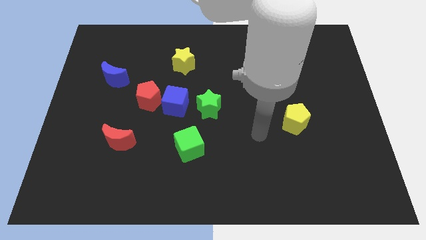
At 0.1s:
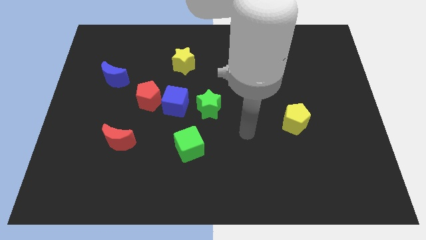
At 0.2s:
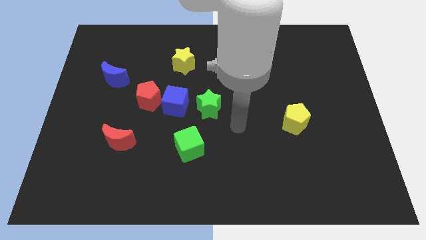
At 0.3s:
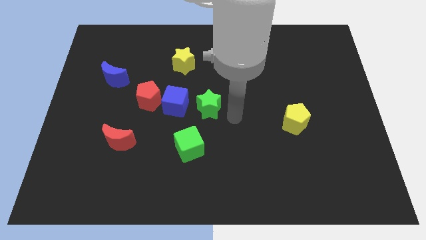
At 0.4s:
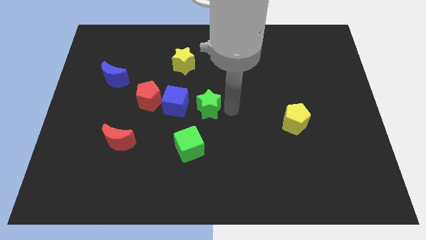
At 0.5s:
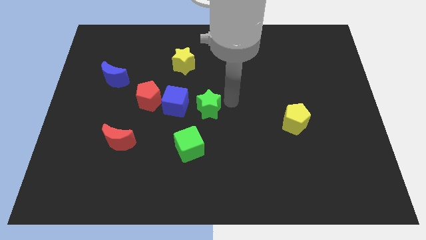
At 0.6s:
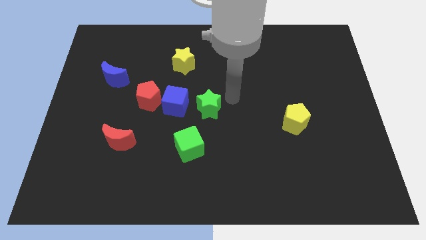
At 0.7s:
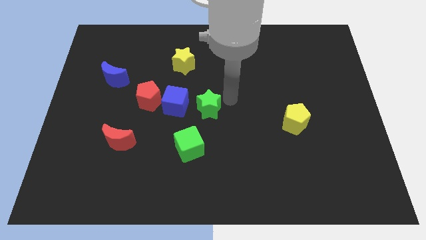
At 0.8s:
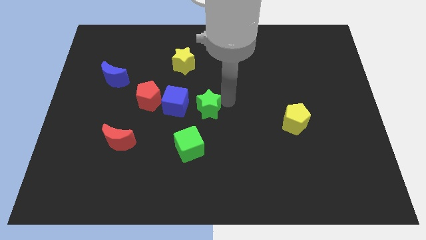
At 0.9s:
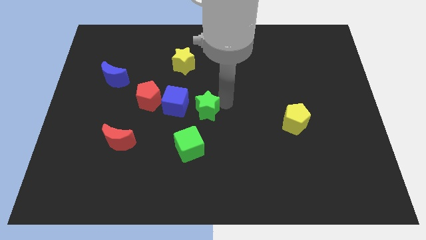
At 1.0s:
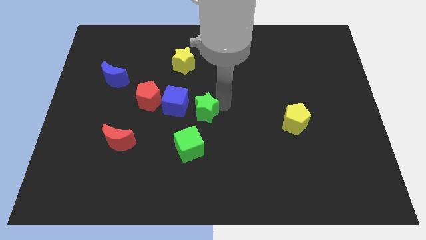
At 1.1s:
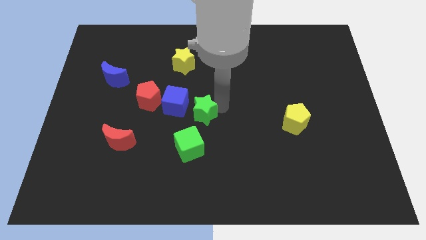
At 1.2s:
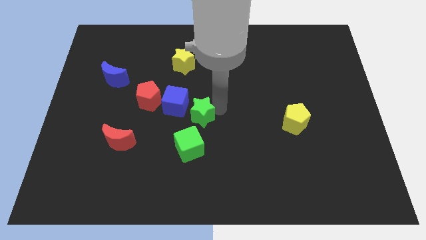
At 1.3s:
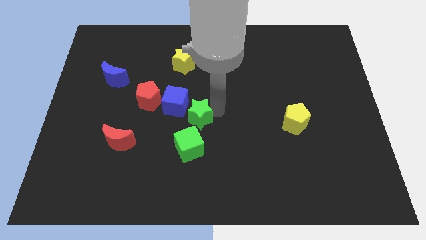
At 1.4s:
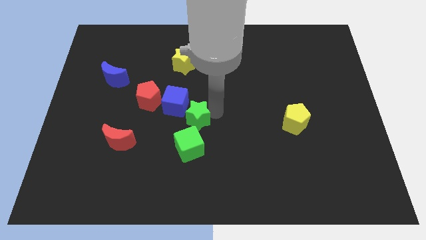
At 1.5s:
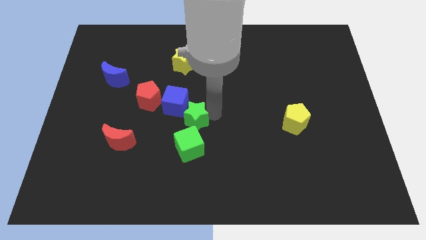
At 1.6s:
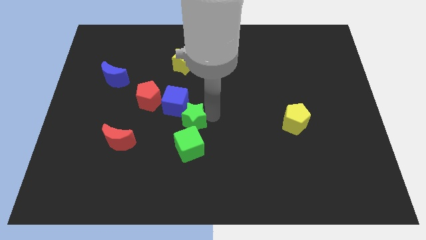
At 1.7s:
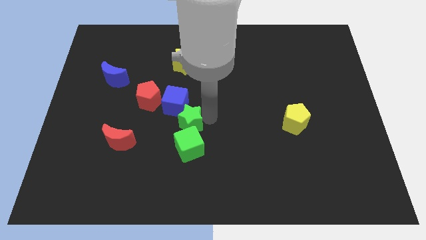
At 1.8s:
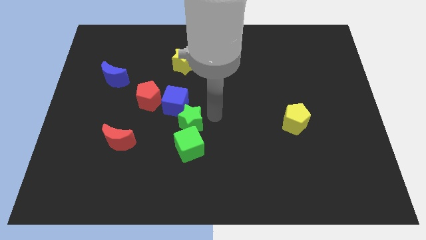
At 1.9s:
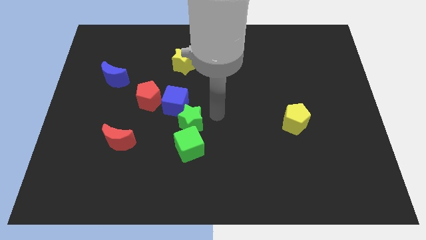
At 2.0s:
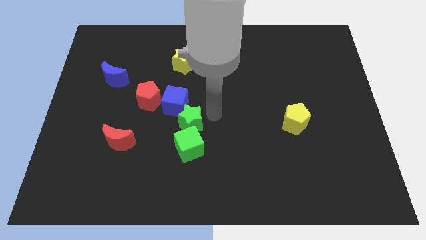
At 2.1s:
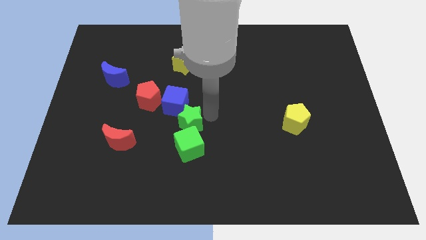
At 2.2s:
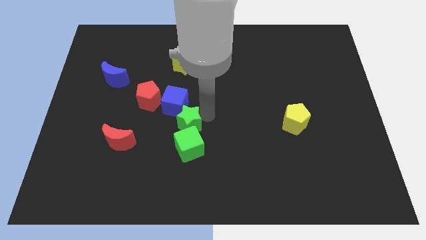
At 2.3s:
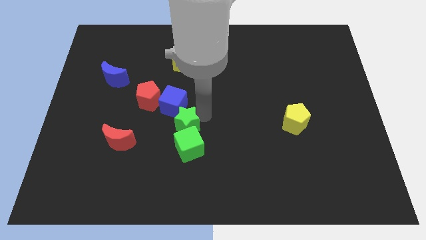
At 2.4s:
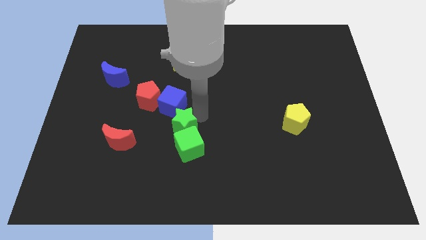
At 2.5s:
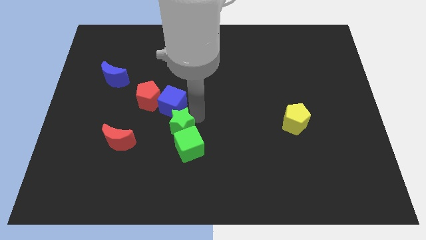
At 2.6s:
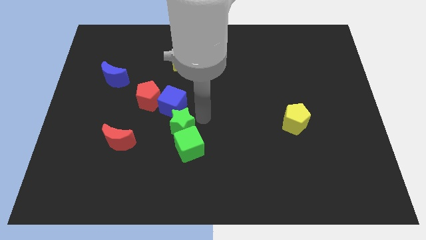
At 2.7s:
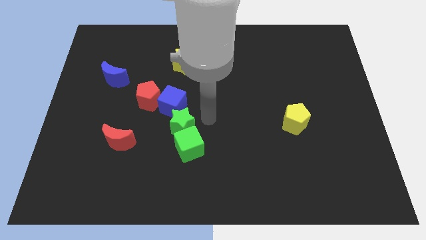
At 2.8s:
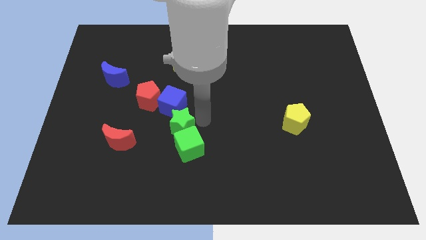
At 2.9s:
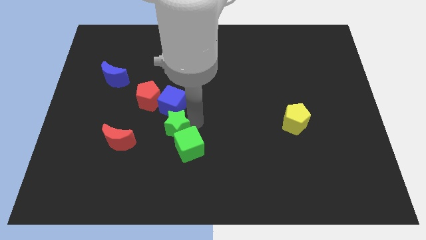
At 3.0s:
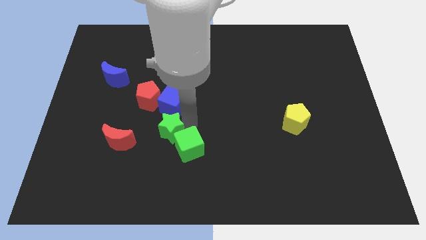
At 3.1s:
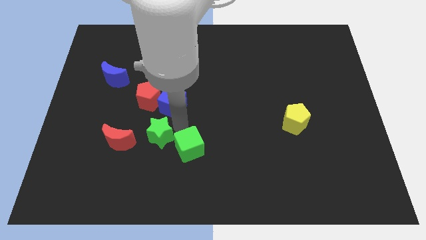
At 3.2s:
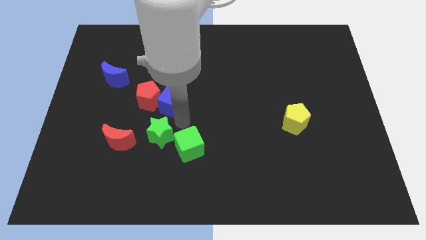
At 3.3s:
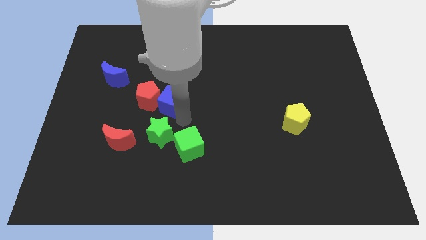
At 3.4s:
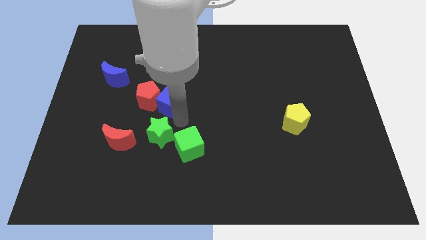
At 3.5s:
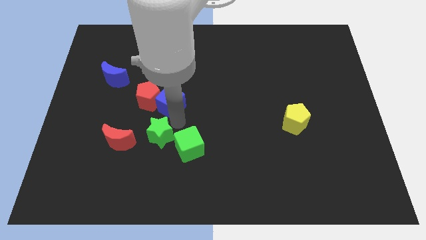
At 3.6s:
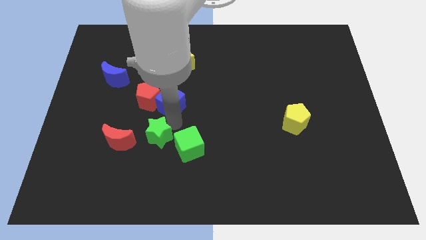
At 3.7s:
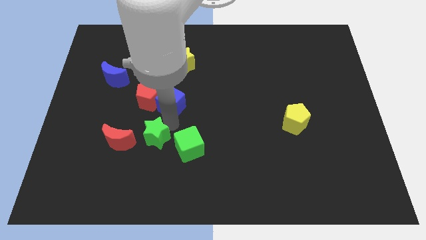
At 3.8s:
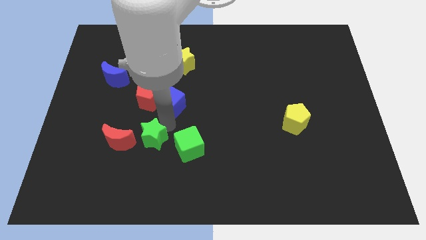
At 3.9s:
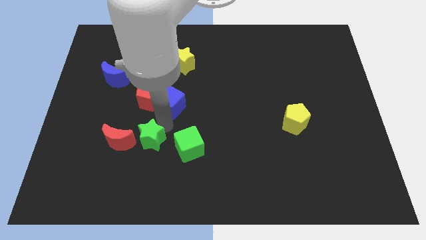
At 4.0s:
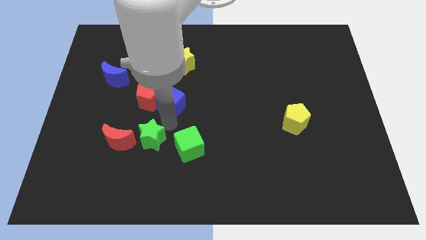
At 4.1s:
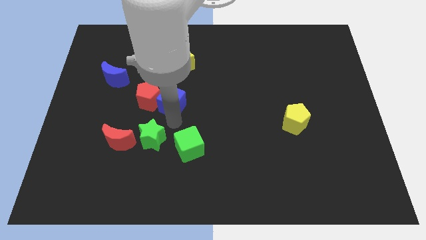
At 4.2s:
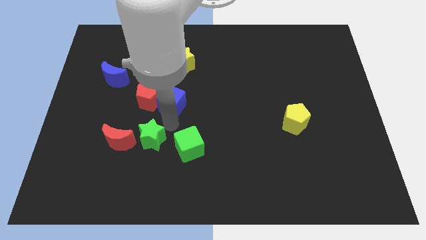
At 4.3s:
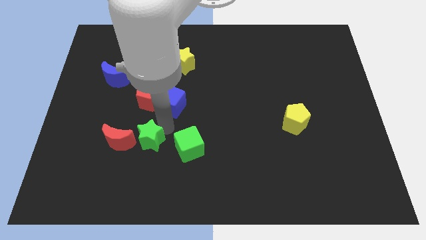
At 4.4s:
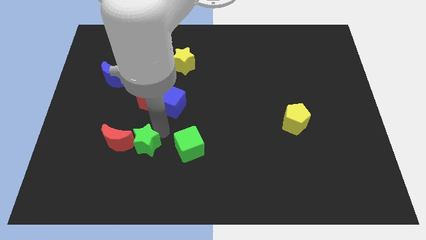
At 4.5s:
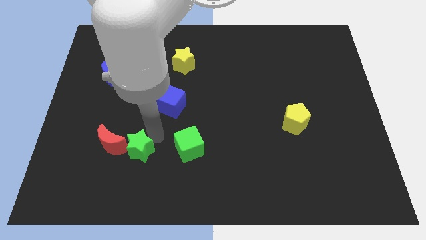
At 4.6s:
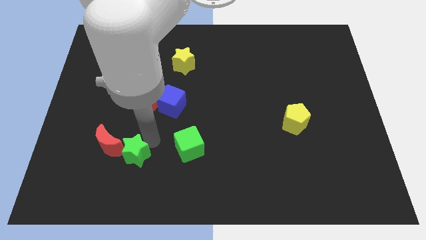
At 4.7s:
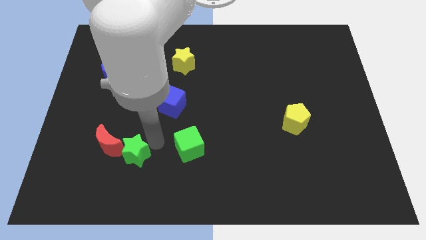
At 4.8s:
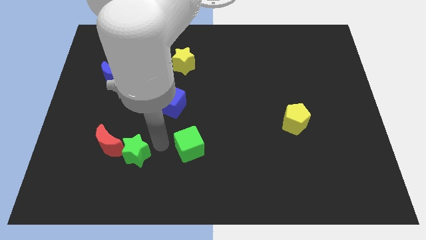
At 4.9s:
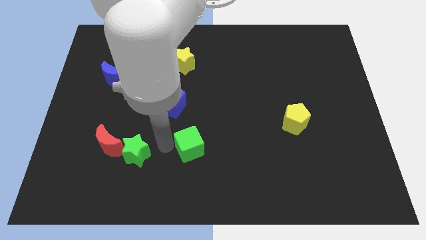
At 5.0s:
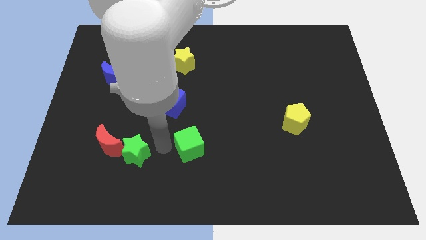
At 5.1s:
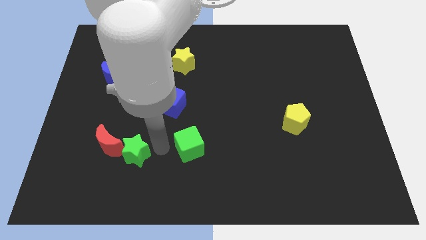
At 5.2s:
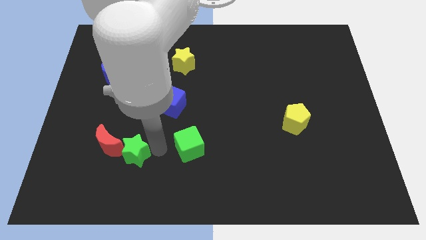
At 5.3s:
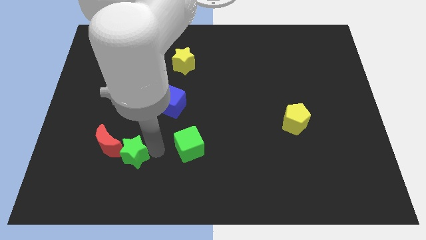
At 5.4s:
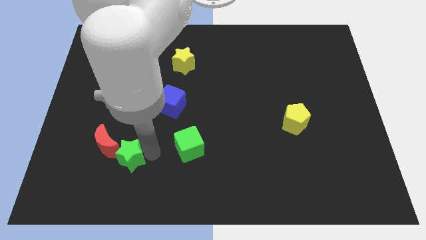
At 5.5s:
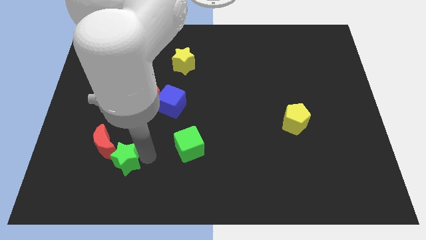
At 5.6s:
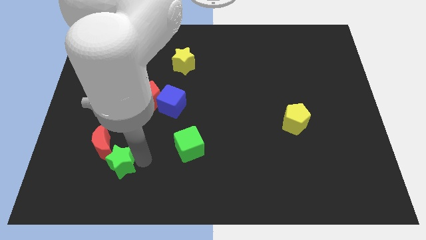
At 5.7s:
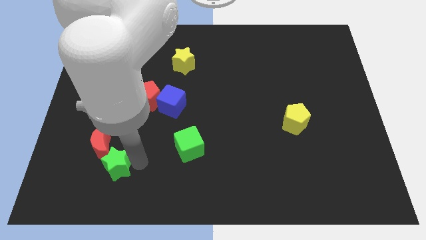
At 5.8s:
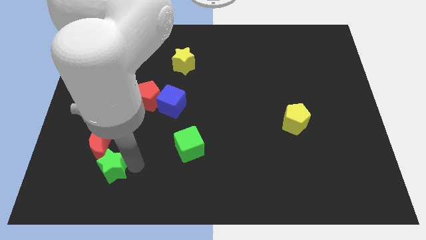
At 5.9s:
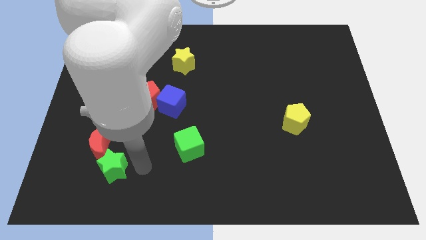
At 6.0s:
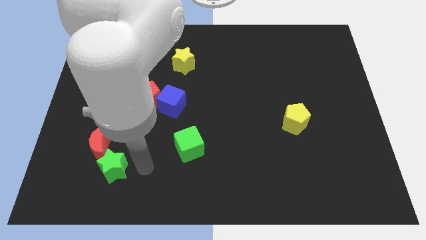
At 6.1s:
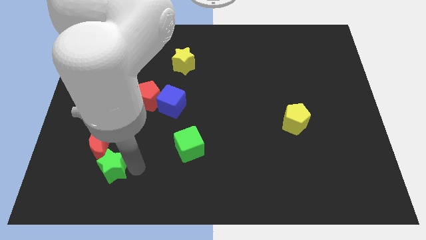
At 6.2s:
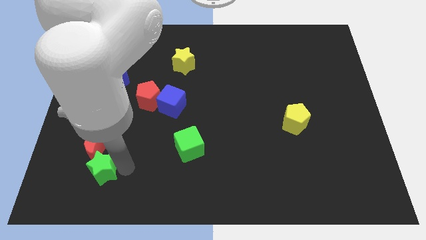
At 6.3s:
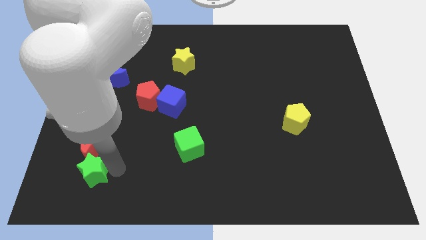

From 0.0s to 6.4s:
push the green star to the bottom left side of the red moon
